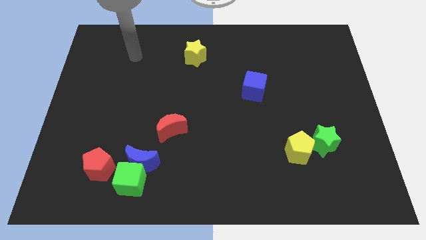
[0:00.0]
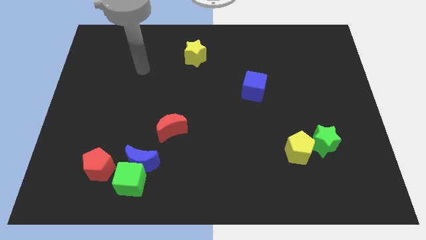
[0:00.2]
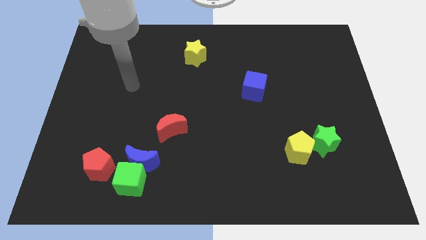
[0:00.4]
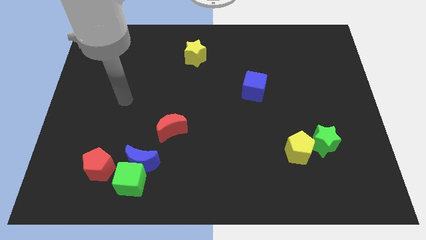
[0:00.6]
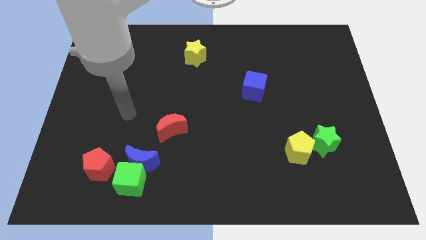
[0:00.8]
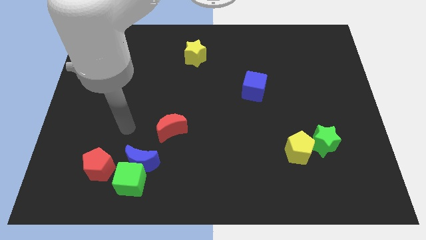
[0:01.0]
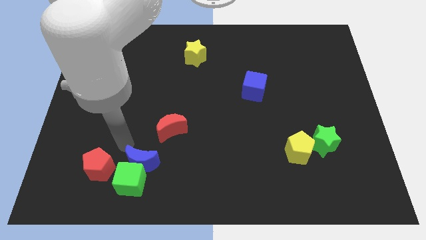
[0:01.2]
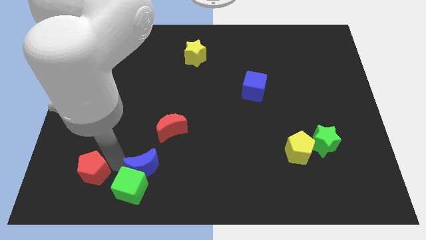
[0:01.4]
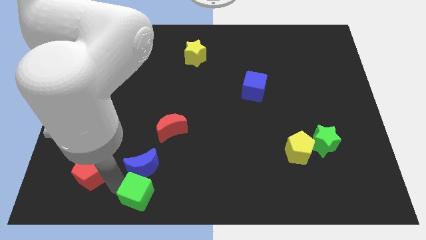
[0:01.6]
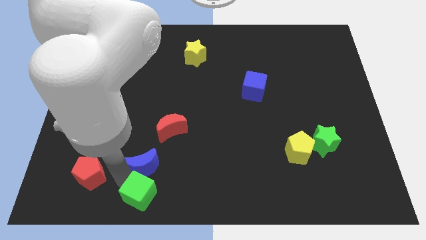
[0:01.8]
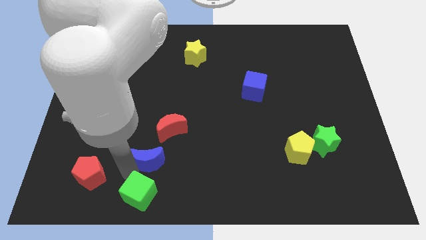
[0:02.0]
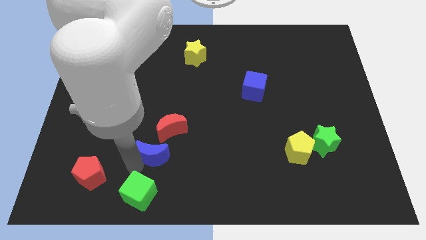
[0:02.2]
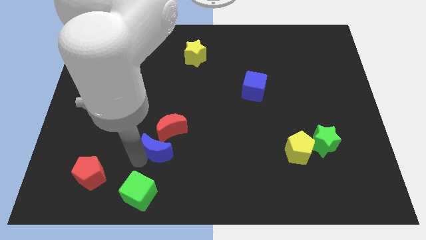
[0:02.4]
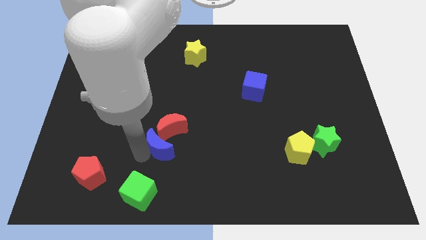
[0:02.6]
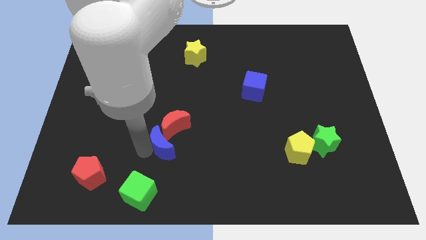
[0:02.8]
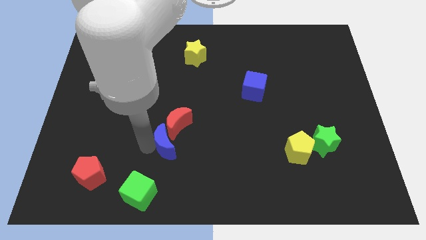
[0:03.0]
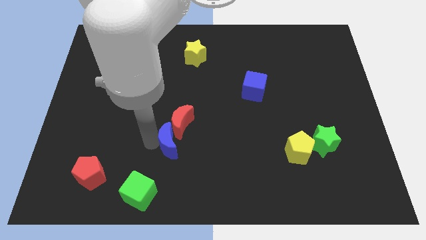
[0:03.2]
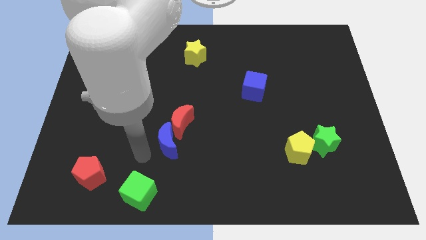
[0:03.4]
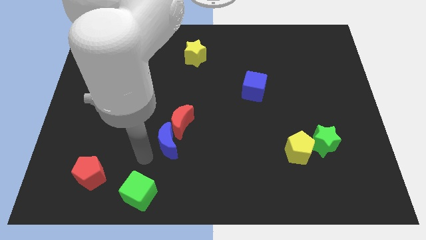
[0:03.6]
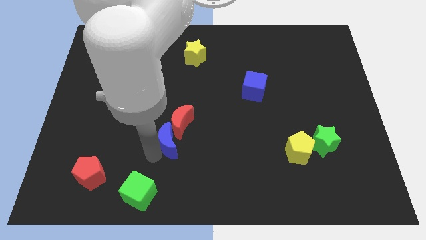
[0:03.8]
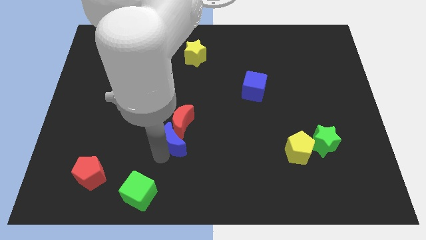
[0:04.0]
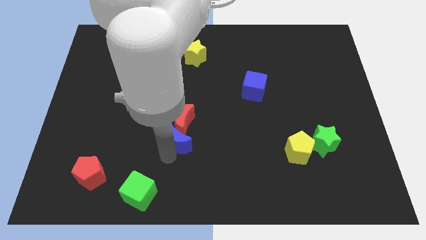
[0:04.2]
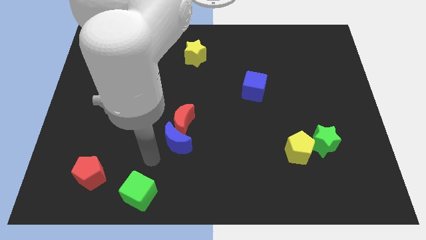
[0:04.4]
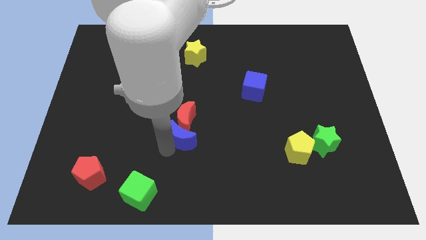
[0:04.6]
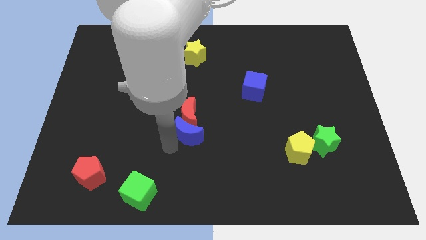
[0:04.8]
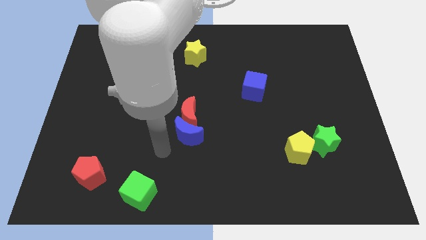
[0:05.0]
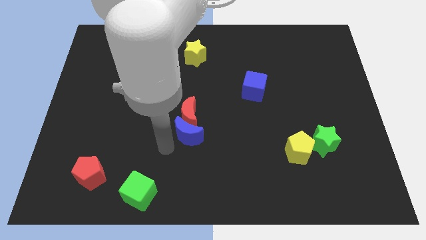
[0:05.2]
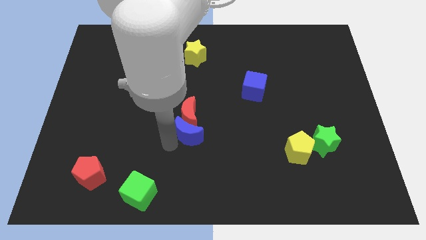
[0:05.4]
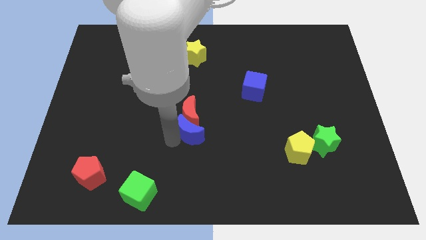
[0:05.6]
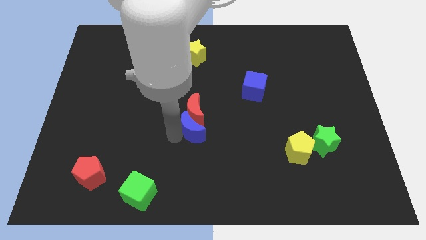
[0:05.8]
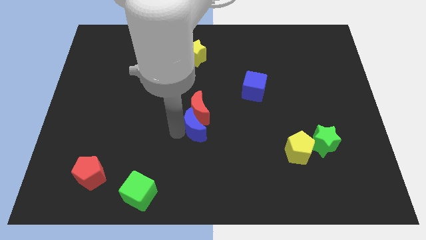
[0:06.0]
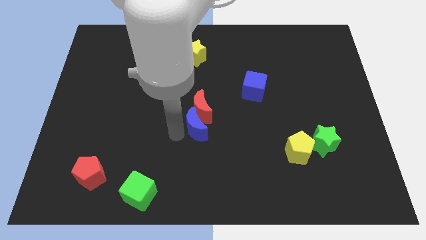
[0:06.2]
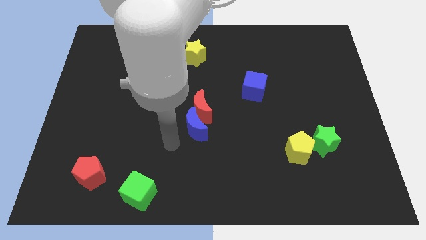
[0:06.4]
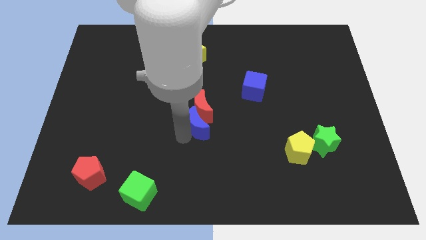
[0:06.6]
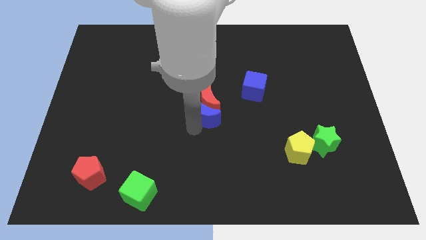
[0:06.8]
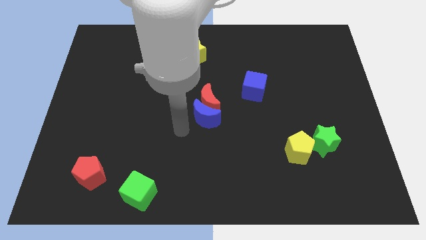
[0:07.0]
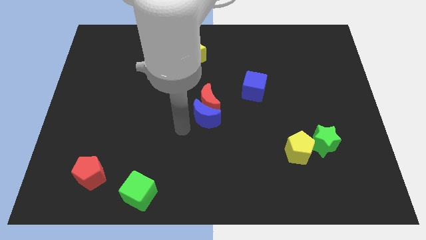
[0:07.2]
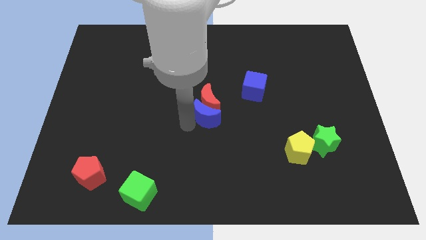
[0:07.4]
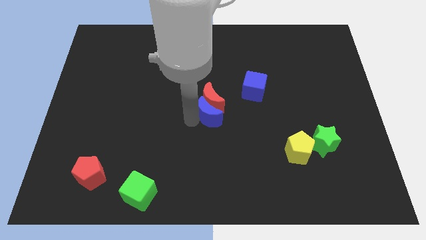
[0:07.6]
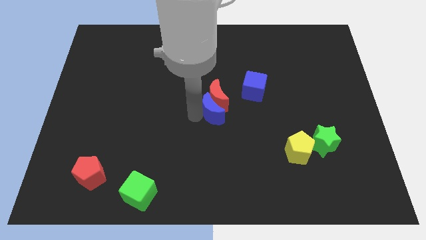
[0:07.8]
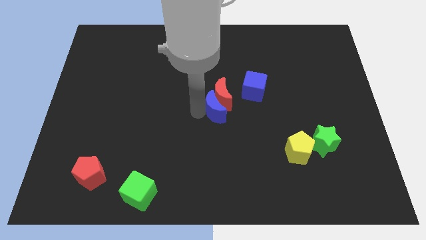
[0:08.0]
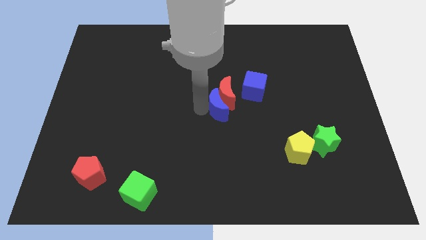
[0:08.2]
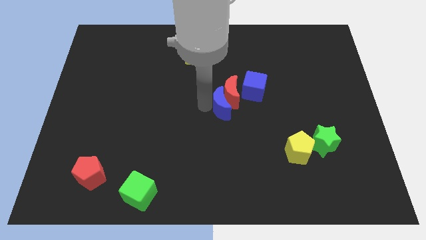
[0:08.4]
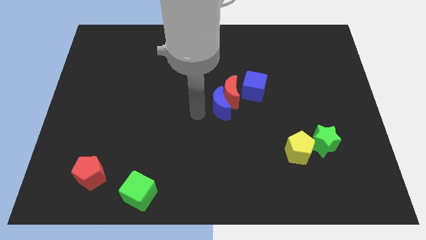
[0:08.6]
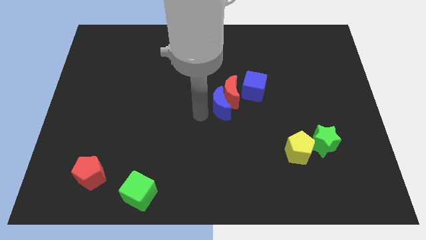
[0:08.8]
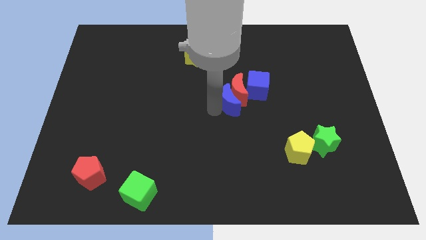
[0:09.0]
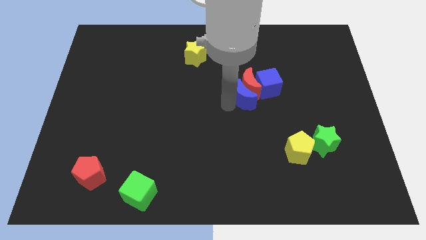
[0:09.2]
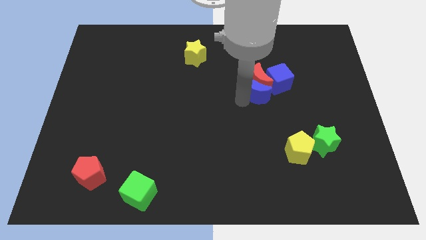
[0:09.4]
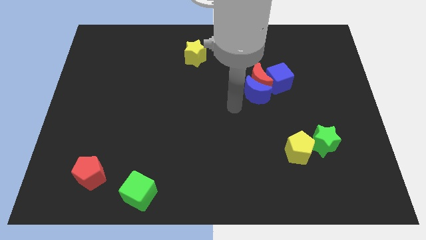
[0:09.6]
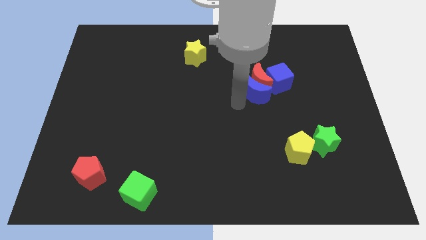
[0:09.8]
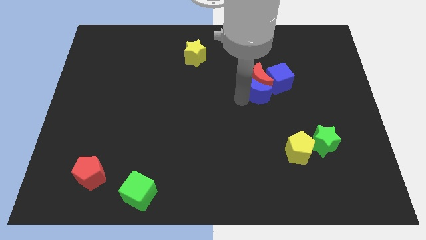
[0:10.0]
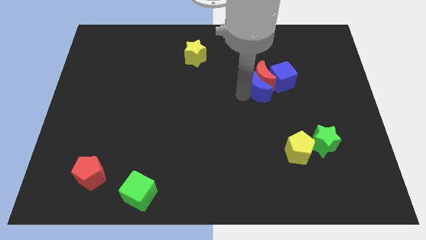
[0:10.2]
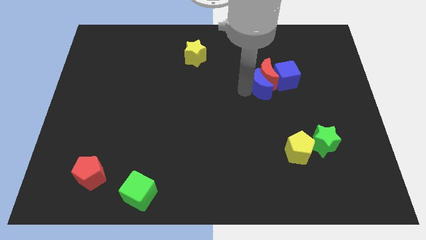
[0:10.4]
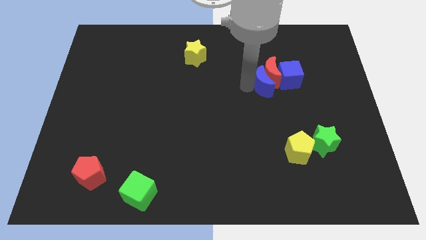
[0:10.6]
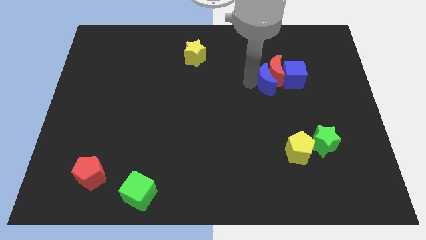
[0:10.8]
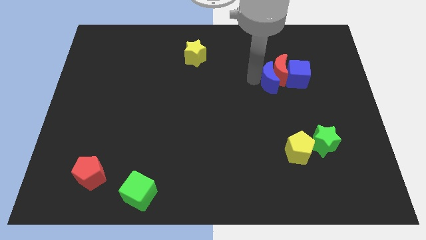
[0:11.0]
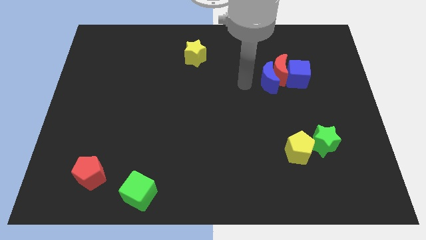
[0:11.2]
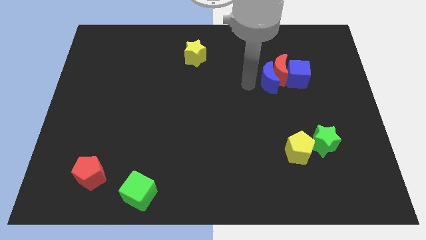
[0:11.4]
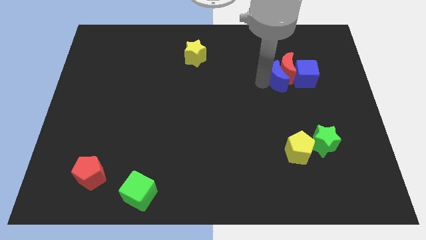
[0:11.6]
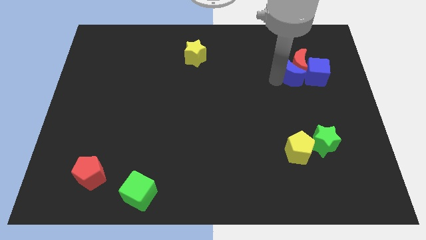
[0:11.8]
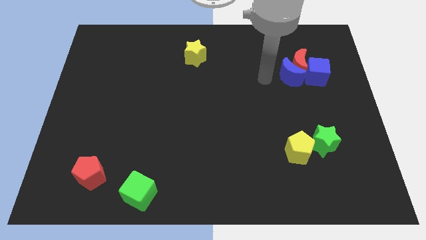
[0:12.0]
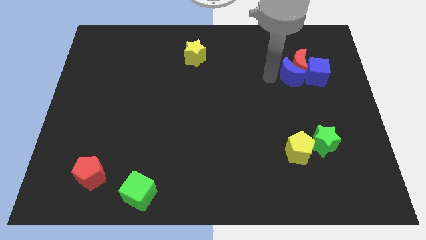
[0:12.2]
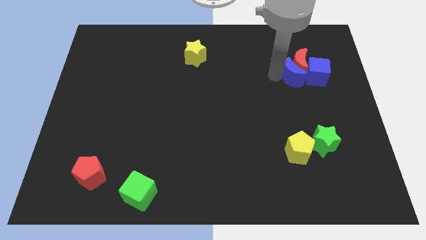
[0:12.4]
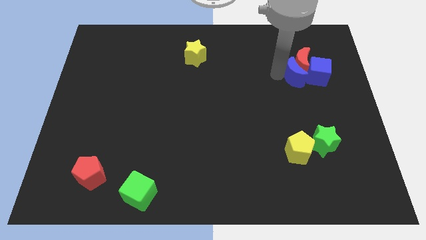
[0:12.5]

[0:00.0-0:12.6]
put the blue moon towards the blue cube
